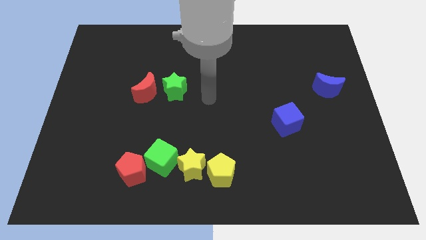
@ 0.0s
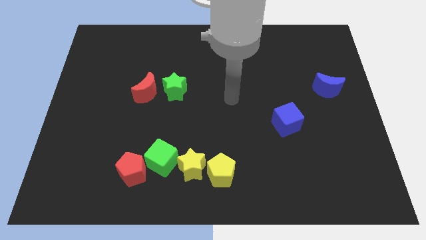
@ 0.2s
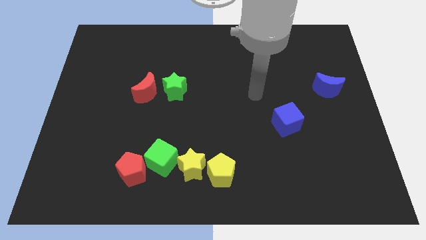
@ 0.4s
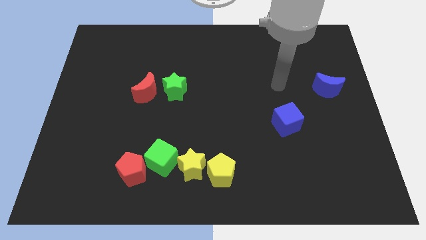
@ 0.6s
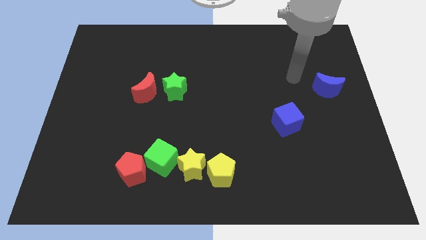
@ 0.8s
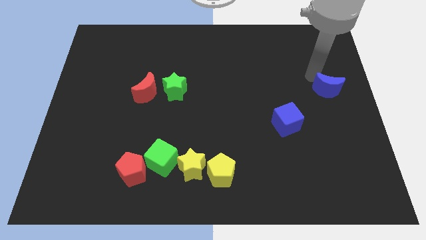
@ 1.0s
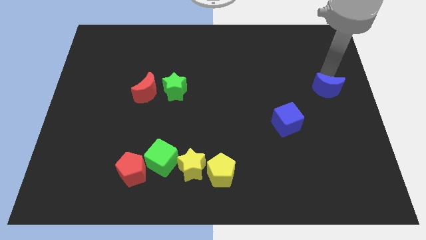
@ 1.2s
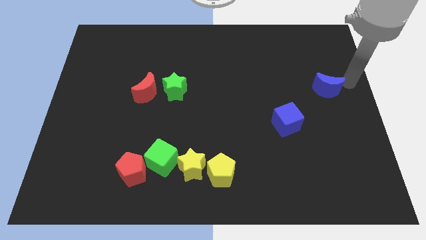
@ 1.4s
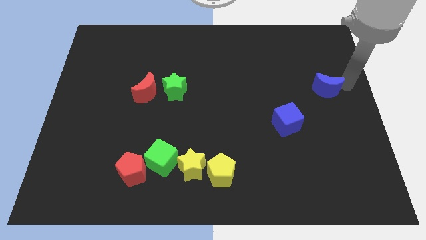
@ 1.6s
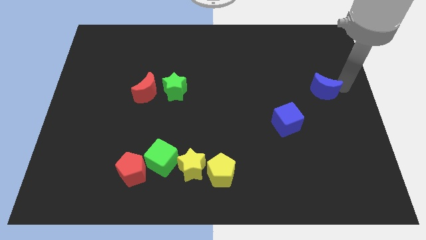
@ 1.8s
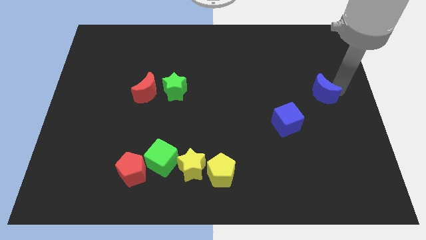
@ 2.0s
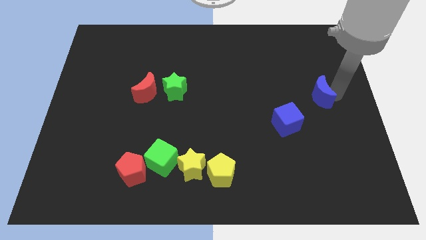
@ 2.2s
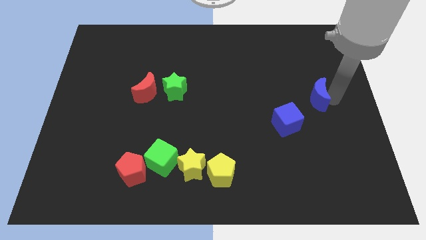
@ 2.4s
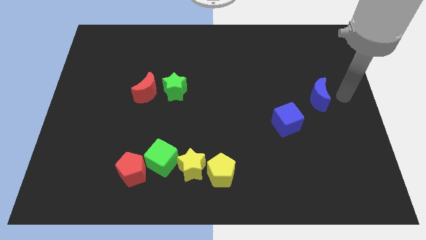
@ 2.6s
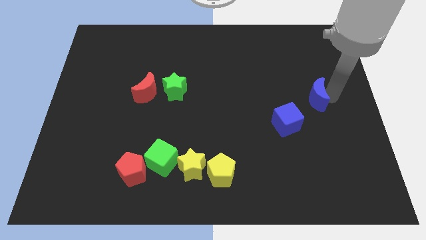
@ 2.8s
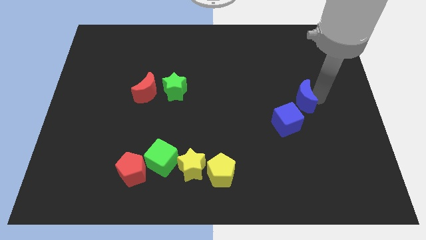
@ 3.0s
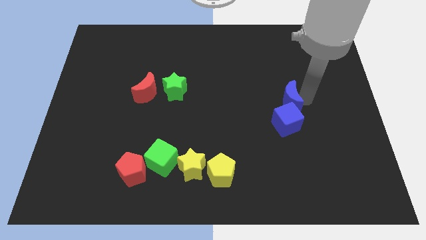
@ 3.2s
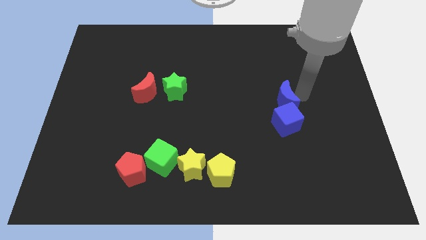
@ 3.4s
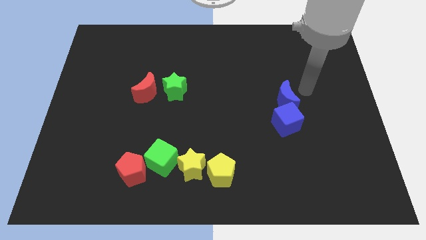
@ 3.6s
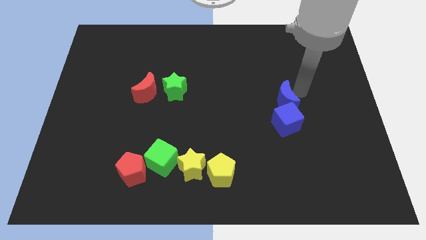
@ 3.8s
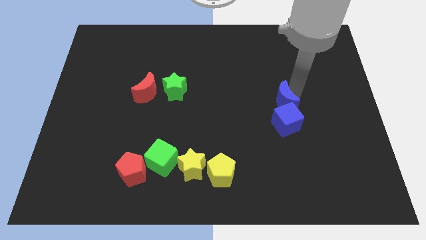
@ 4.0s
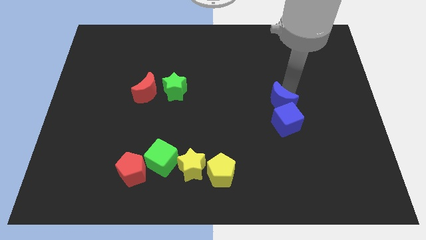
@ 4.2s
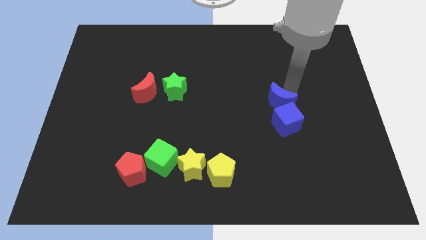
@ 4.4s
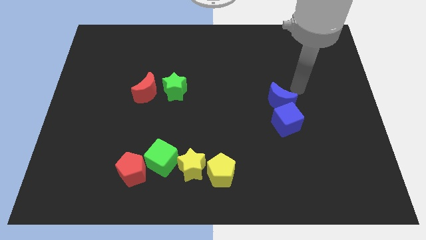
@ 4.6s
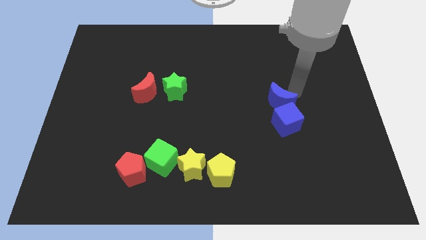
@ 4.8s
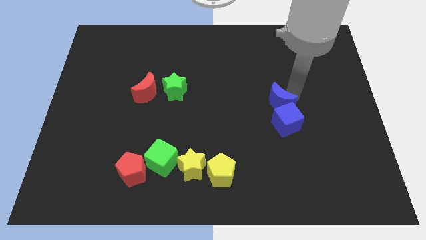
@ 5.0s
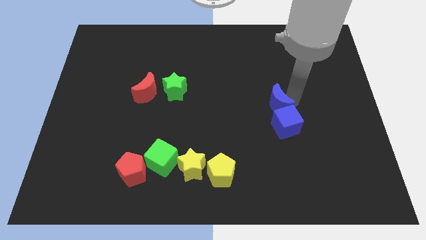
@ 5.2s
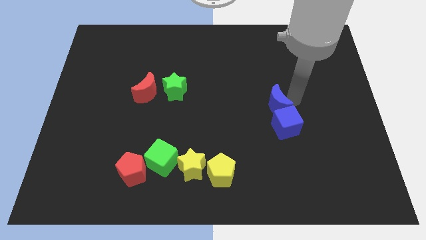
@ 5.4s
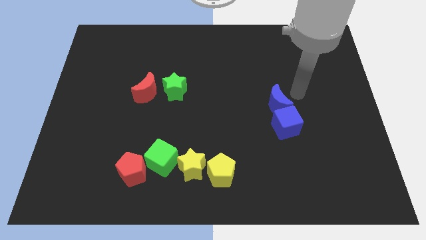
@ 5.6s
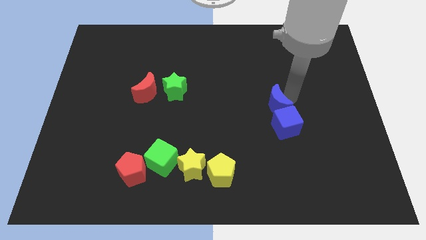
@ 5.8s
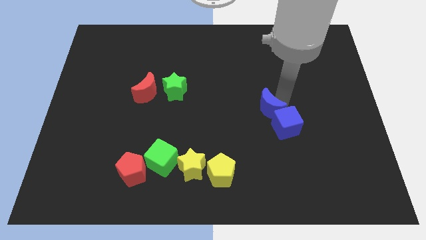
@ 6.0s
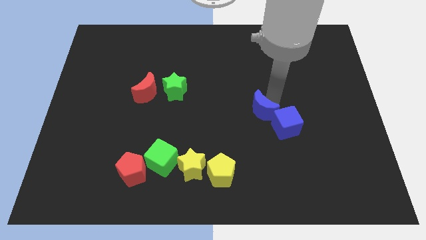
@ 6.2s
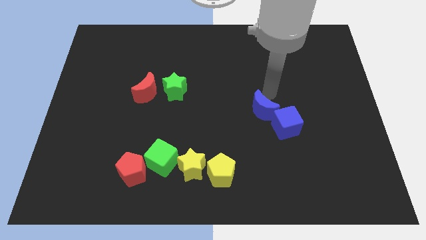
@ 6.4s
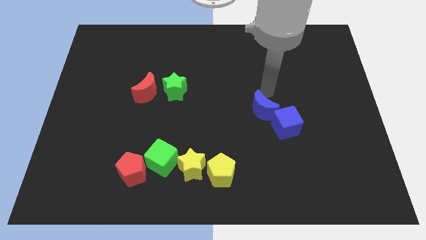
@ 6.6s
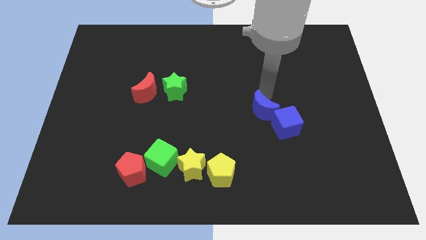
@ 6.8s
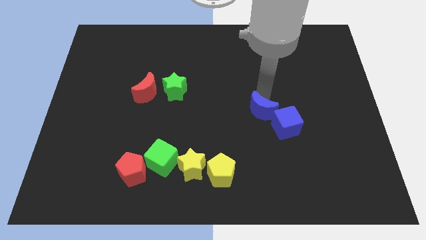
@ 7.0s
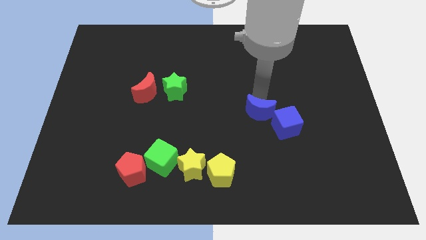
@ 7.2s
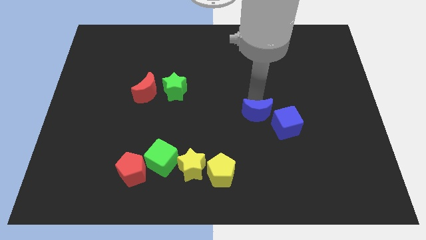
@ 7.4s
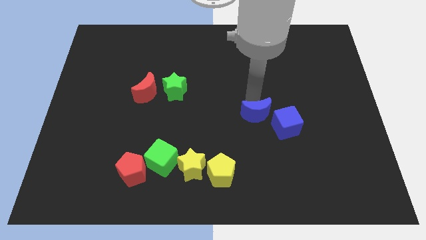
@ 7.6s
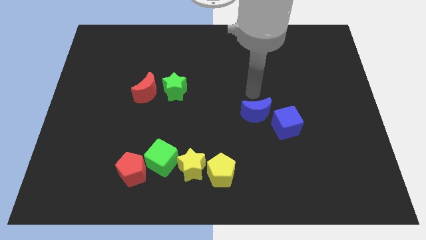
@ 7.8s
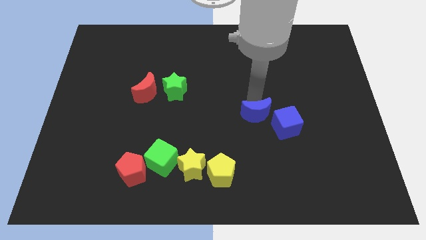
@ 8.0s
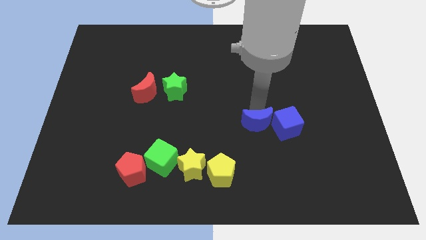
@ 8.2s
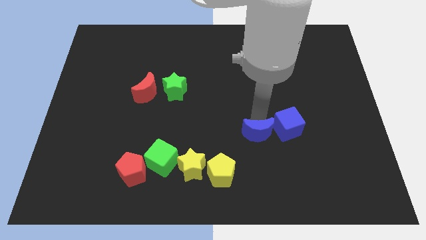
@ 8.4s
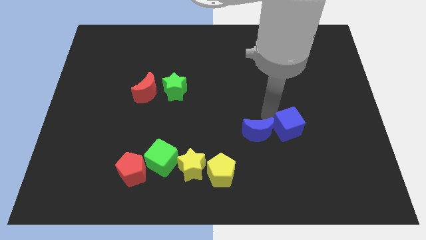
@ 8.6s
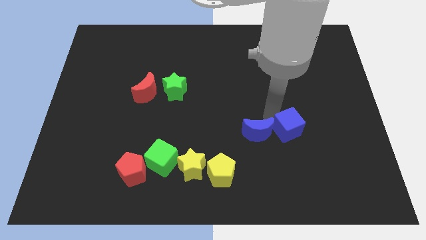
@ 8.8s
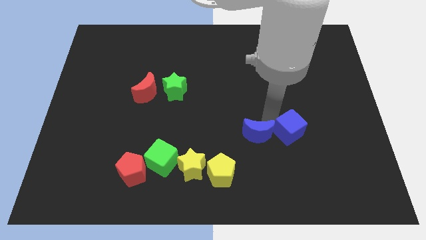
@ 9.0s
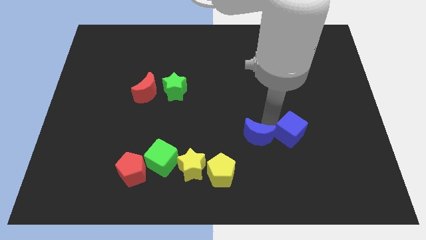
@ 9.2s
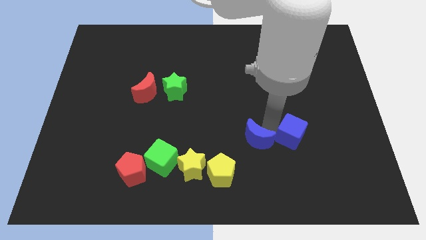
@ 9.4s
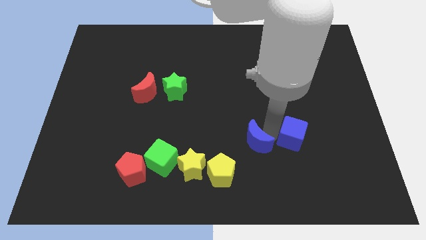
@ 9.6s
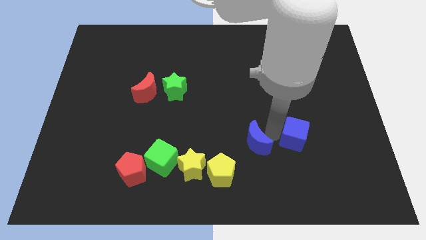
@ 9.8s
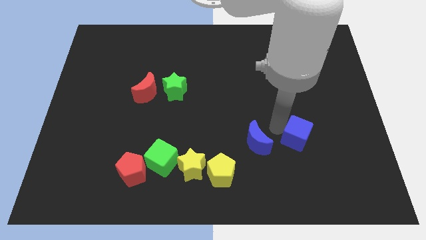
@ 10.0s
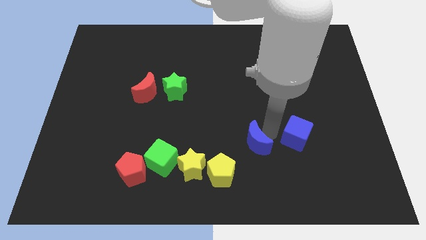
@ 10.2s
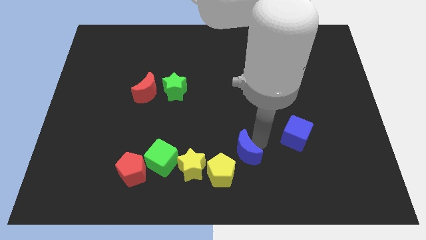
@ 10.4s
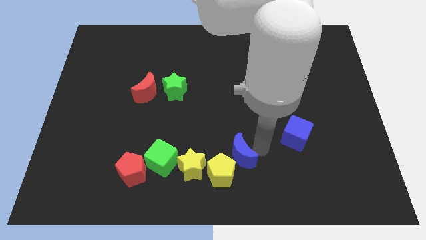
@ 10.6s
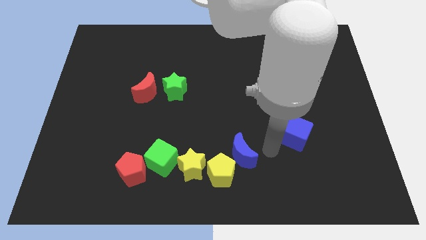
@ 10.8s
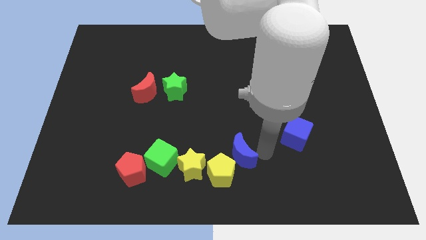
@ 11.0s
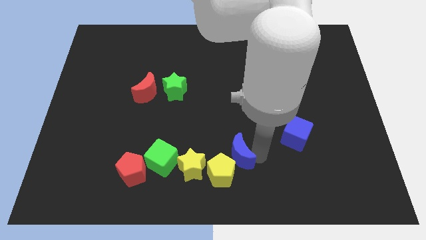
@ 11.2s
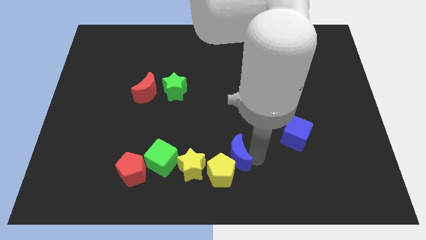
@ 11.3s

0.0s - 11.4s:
slide the blue moon right of the green cube
